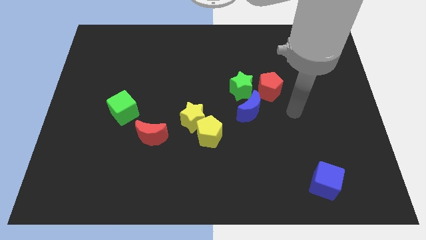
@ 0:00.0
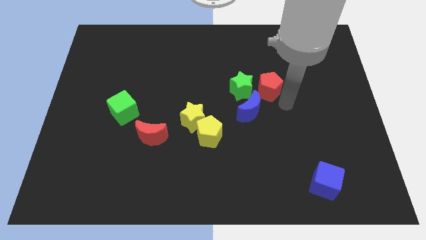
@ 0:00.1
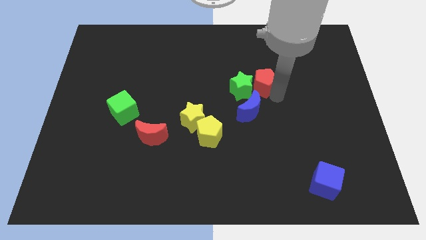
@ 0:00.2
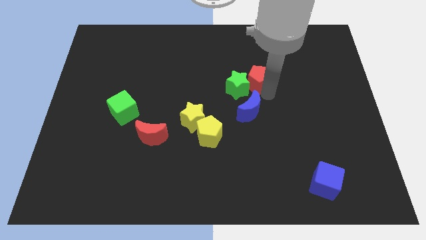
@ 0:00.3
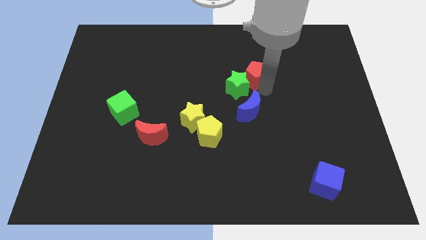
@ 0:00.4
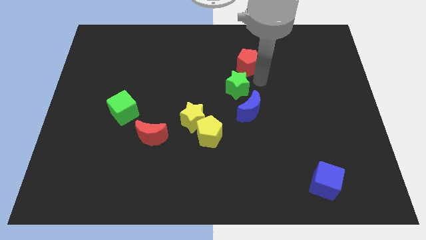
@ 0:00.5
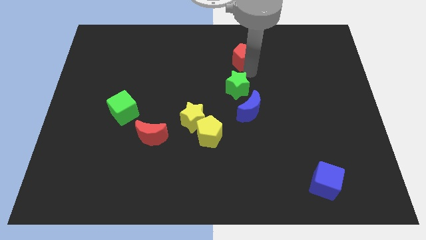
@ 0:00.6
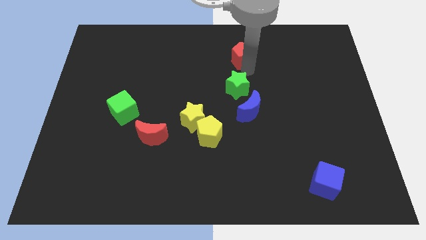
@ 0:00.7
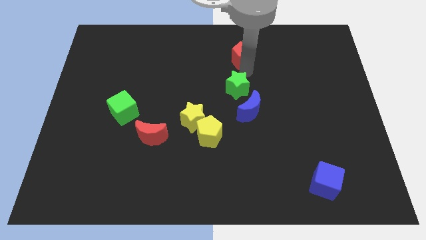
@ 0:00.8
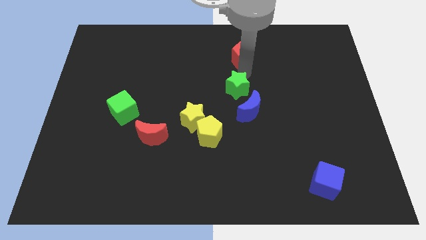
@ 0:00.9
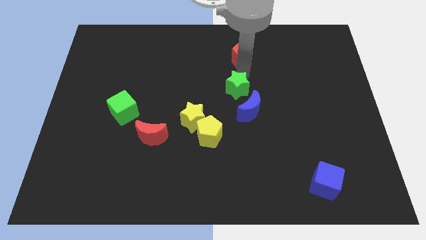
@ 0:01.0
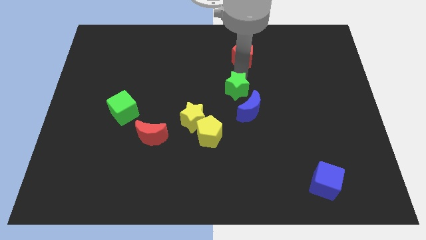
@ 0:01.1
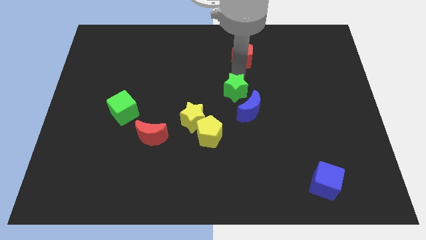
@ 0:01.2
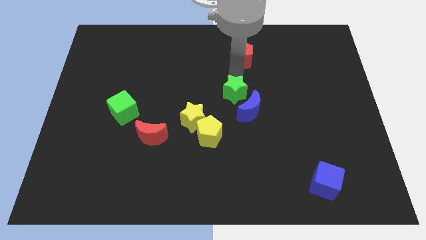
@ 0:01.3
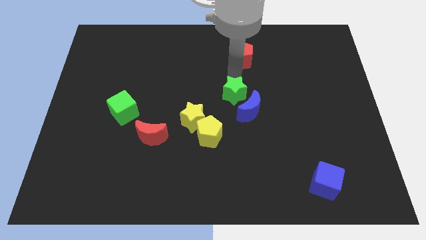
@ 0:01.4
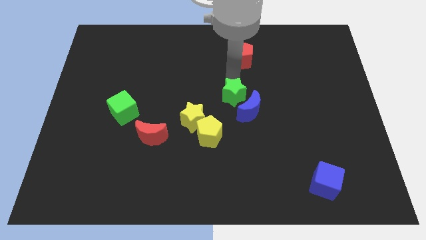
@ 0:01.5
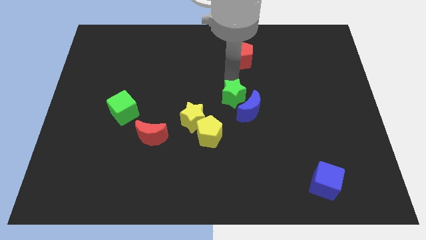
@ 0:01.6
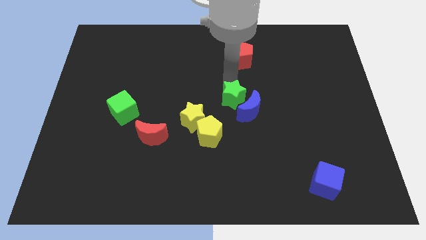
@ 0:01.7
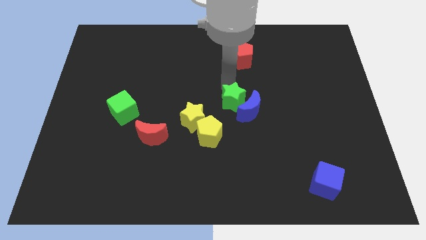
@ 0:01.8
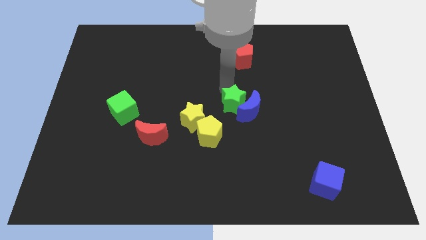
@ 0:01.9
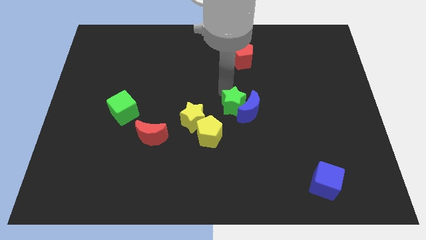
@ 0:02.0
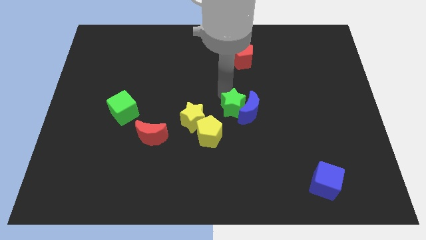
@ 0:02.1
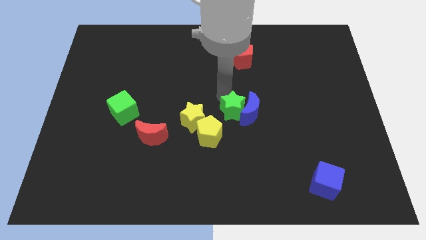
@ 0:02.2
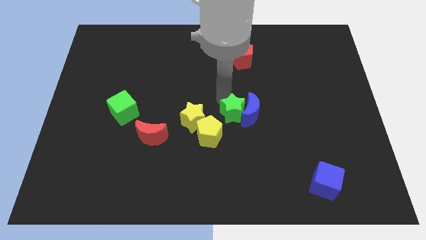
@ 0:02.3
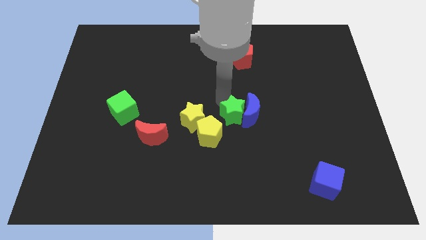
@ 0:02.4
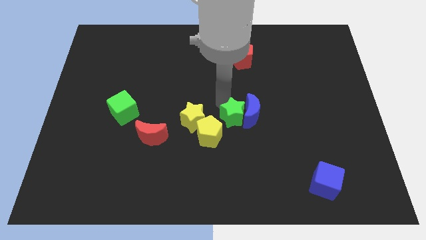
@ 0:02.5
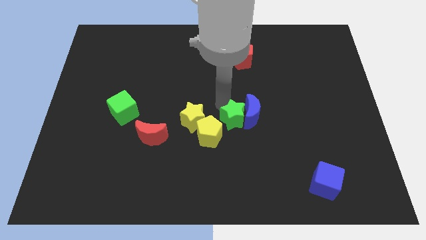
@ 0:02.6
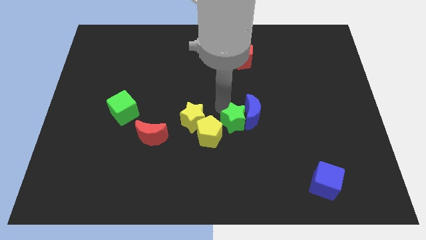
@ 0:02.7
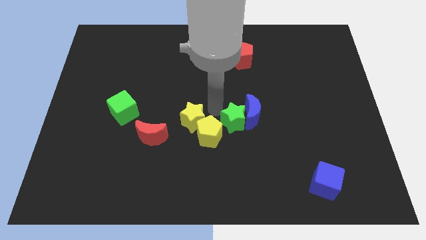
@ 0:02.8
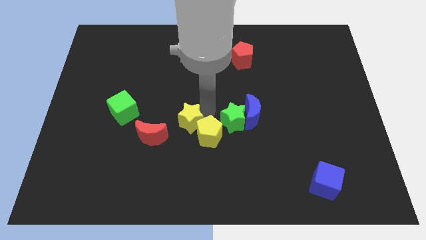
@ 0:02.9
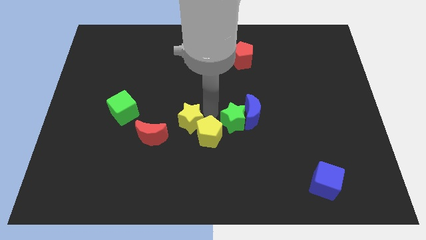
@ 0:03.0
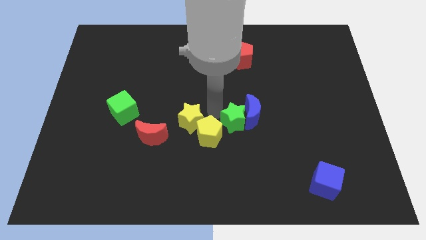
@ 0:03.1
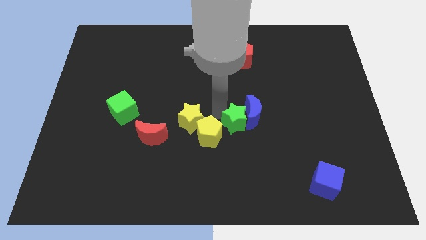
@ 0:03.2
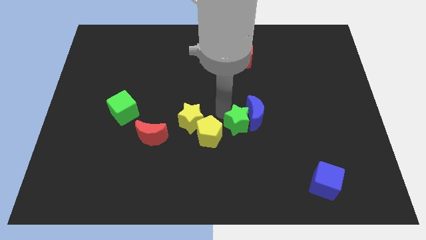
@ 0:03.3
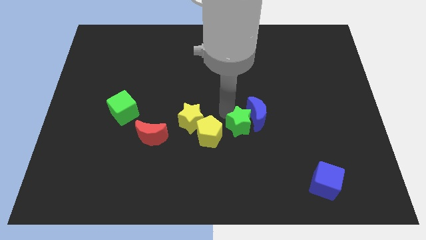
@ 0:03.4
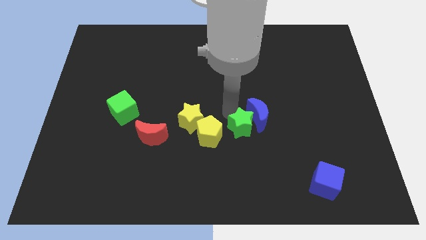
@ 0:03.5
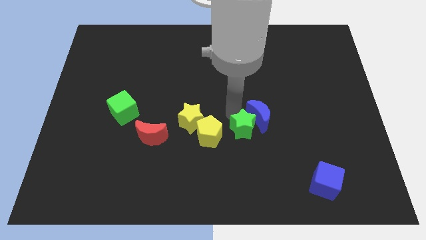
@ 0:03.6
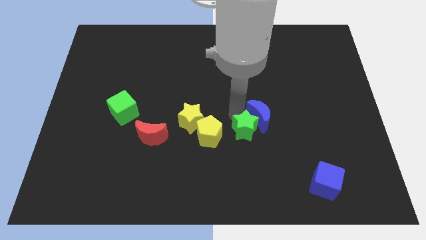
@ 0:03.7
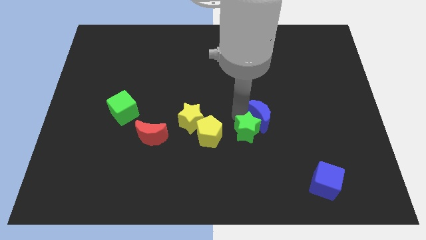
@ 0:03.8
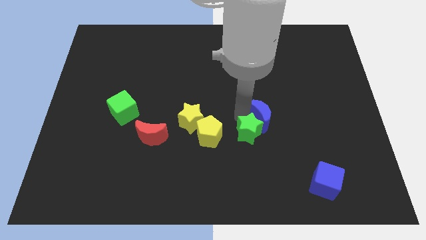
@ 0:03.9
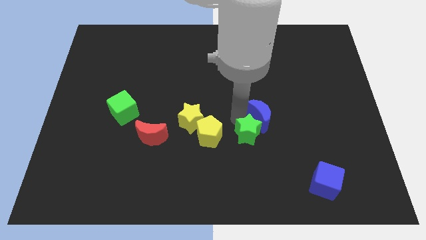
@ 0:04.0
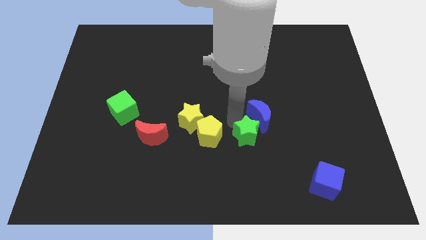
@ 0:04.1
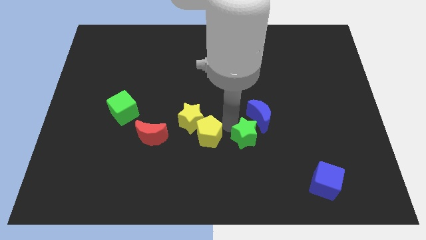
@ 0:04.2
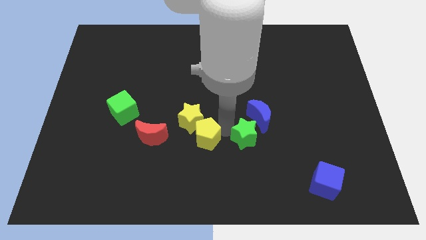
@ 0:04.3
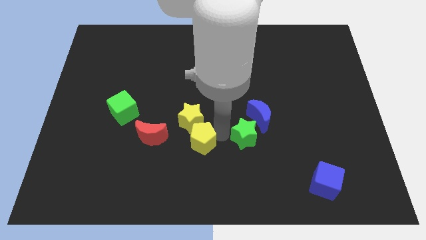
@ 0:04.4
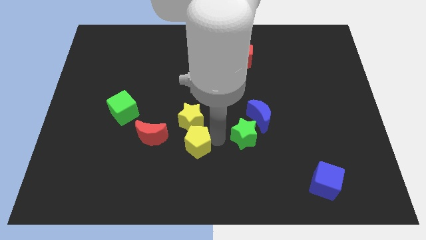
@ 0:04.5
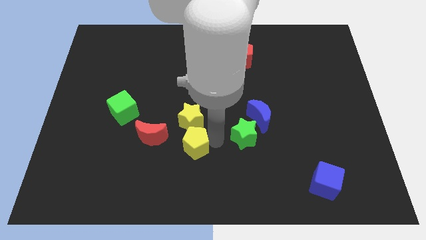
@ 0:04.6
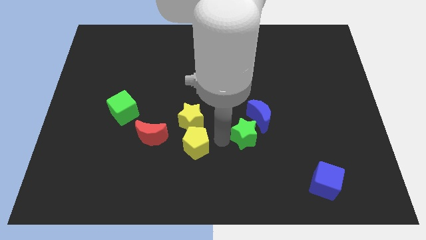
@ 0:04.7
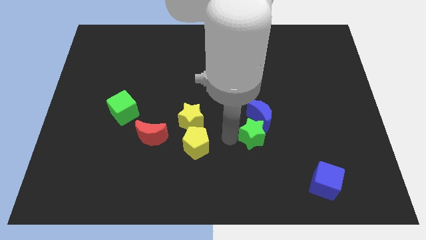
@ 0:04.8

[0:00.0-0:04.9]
slightly move the green star diagonally downwards and right

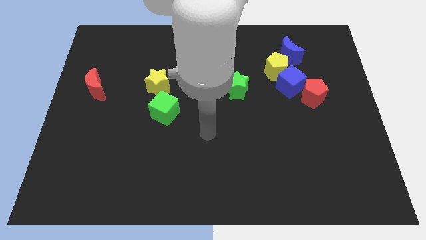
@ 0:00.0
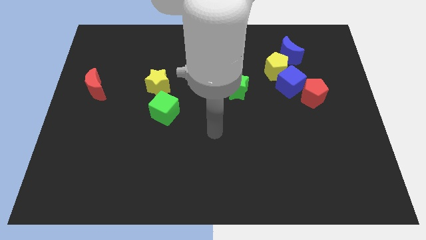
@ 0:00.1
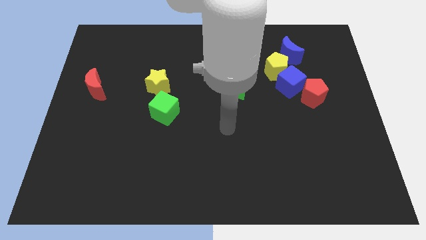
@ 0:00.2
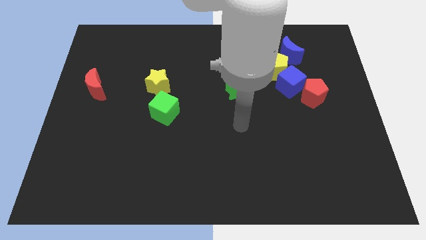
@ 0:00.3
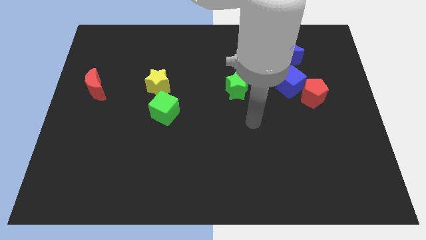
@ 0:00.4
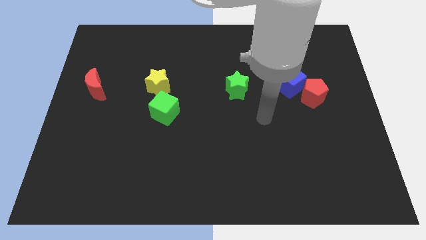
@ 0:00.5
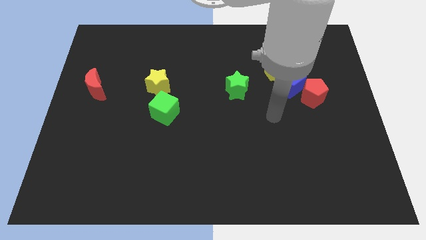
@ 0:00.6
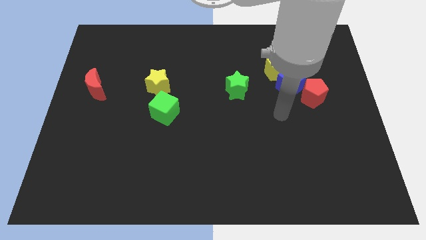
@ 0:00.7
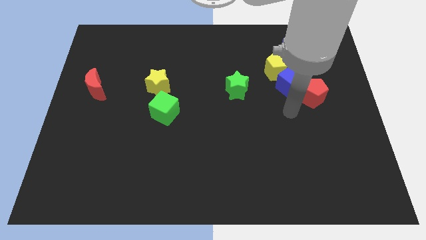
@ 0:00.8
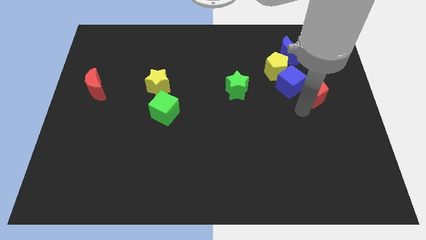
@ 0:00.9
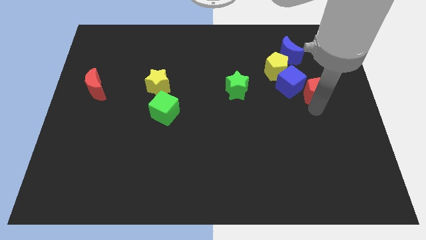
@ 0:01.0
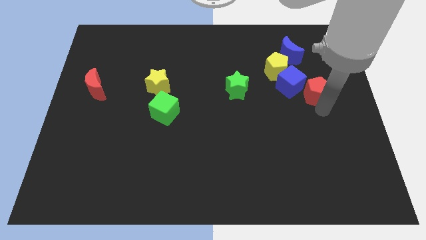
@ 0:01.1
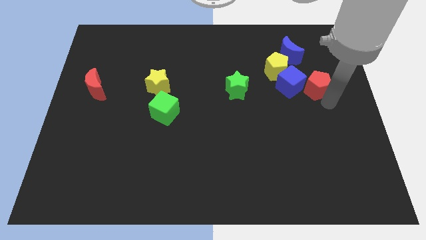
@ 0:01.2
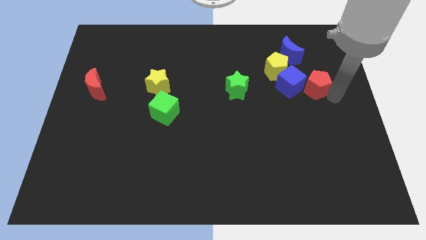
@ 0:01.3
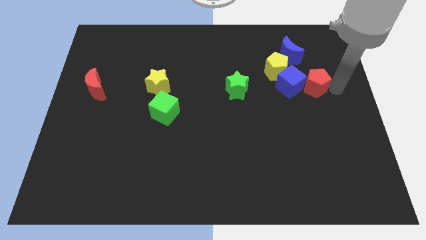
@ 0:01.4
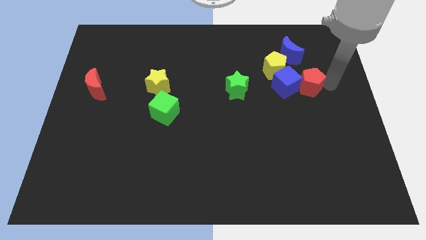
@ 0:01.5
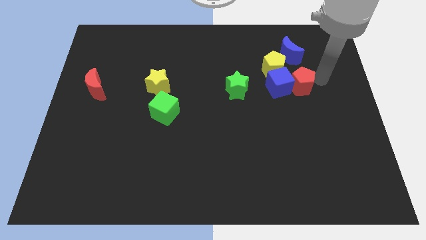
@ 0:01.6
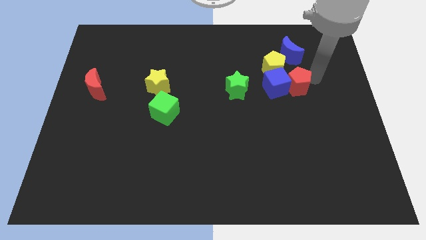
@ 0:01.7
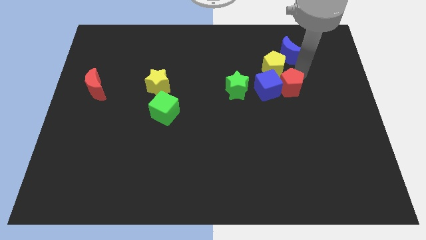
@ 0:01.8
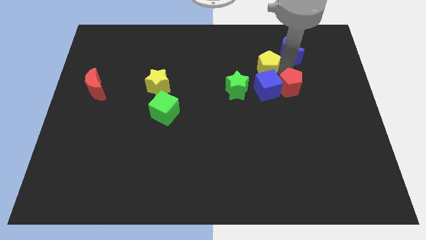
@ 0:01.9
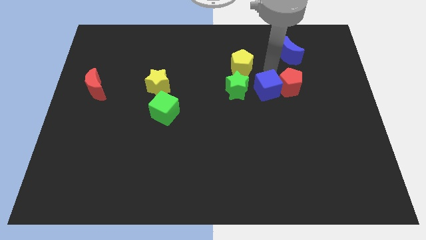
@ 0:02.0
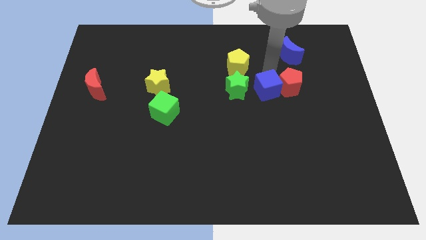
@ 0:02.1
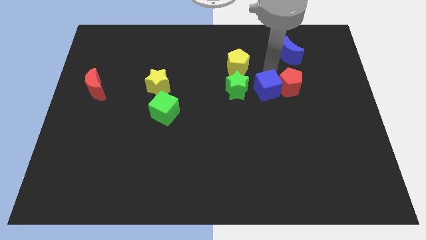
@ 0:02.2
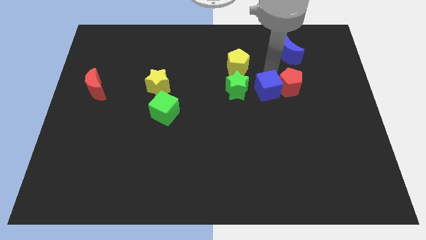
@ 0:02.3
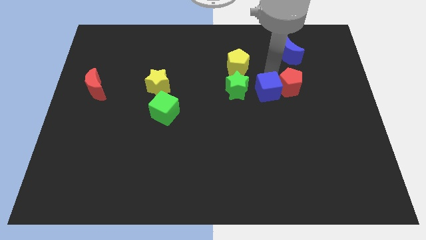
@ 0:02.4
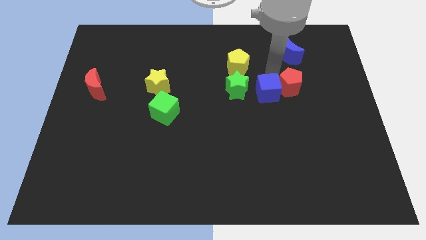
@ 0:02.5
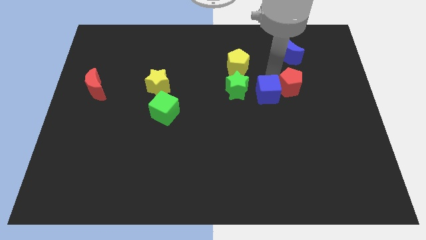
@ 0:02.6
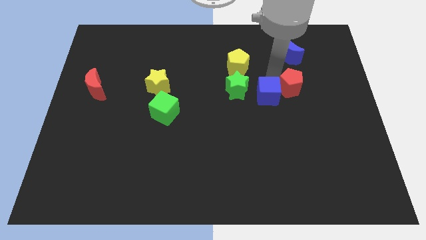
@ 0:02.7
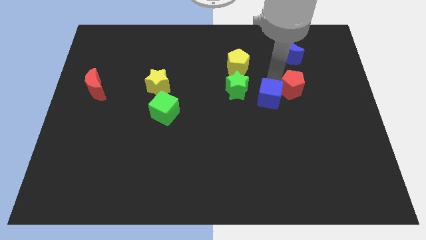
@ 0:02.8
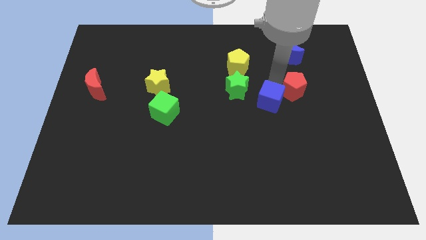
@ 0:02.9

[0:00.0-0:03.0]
slightly move the blue cube downwards and then left

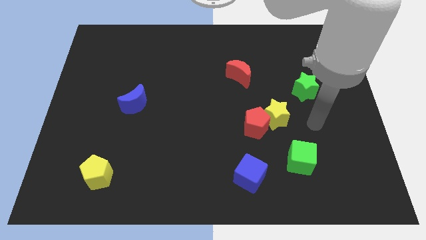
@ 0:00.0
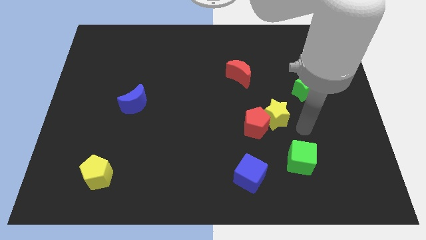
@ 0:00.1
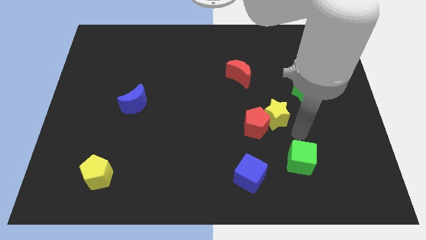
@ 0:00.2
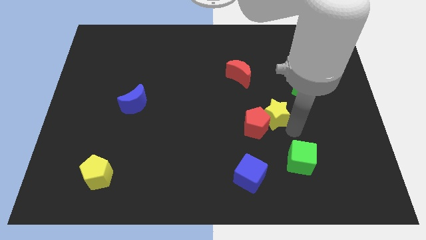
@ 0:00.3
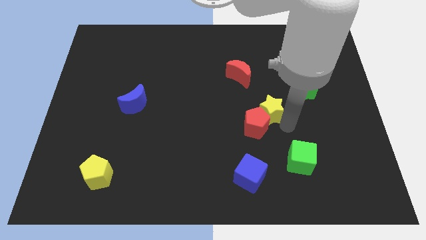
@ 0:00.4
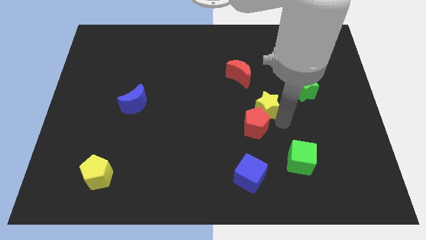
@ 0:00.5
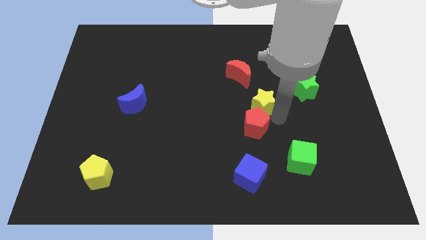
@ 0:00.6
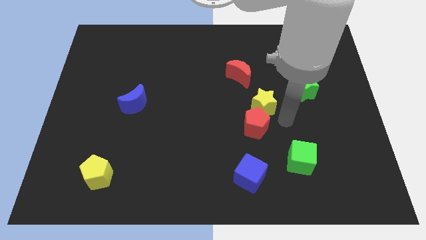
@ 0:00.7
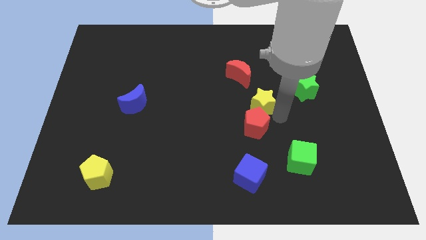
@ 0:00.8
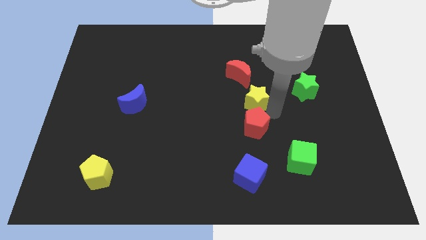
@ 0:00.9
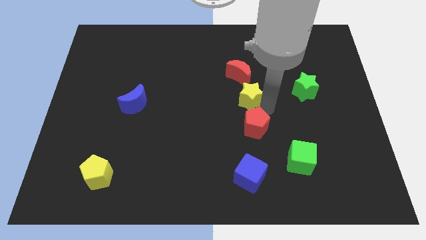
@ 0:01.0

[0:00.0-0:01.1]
slightly slide the yellow star upwards and then left
